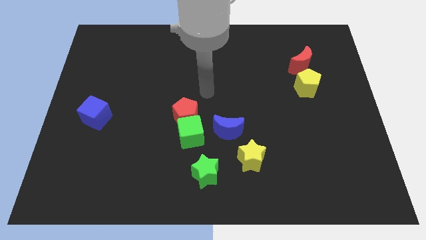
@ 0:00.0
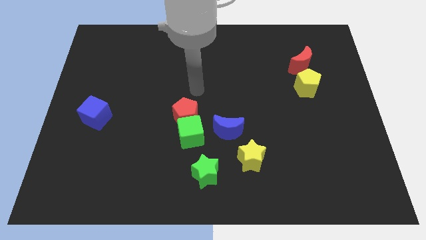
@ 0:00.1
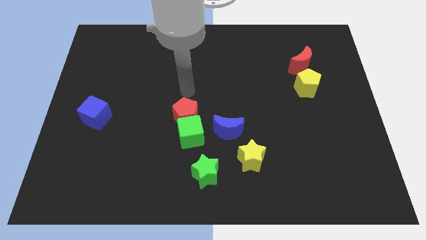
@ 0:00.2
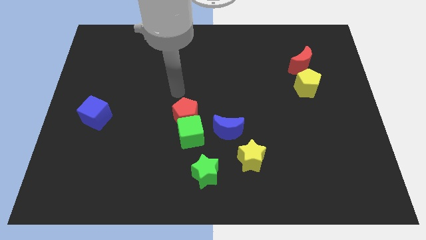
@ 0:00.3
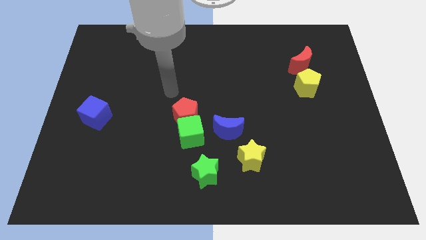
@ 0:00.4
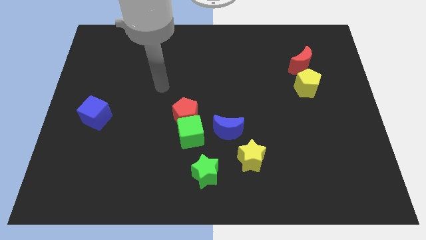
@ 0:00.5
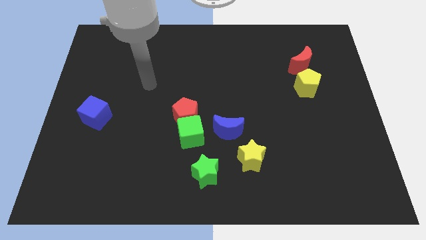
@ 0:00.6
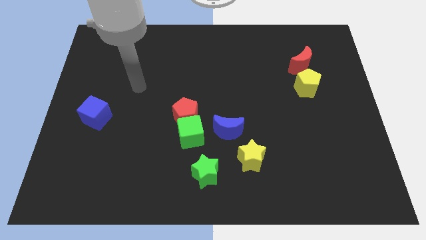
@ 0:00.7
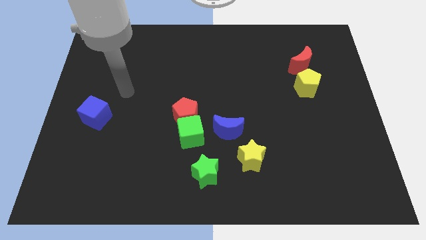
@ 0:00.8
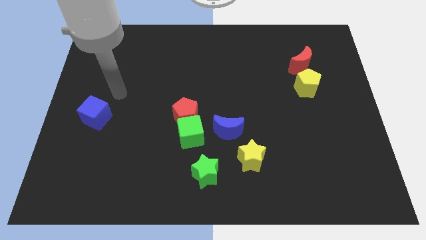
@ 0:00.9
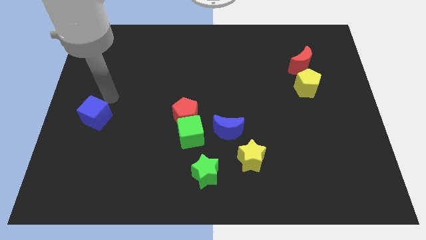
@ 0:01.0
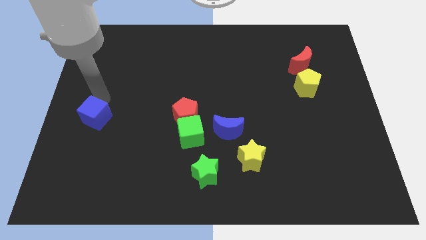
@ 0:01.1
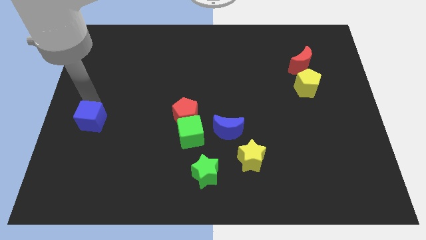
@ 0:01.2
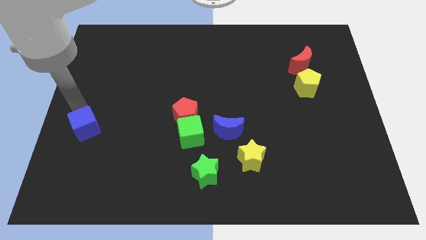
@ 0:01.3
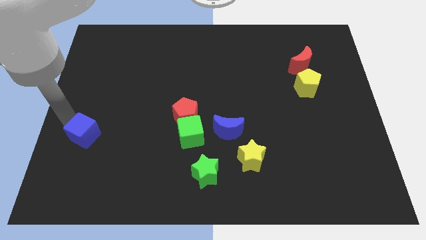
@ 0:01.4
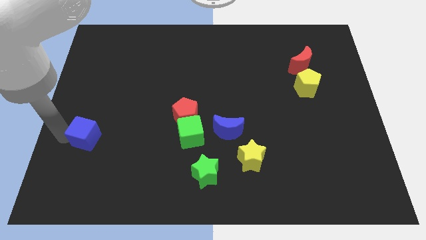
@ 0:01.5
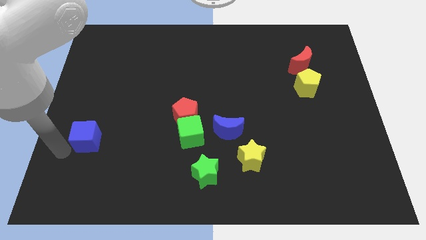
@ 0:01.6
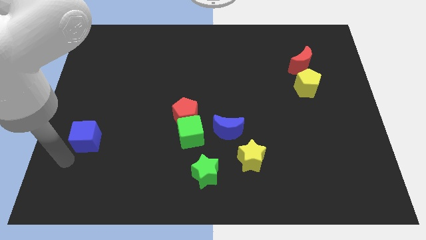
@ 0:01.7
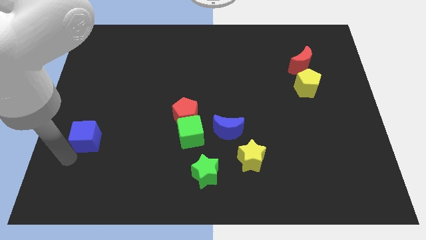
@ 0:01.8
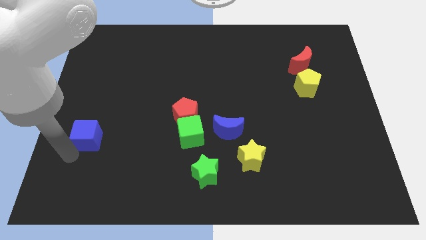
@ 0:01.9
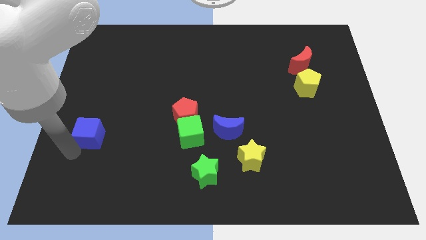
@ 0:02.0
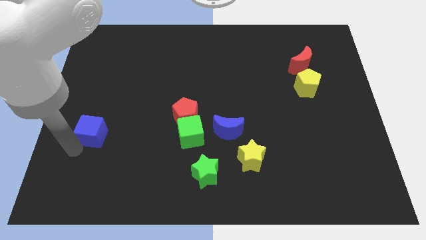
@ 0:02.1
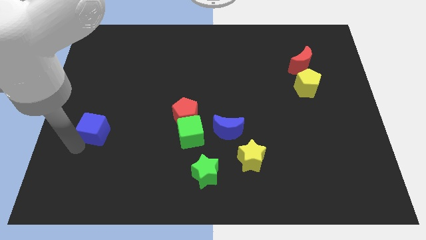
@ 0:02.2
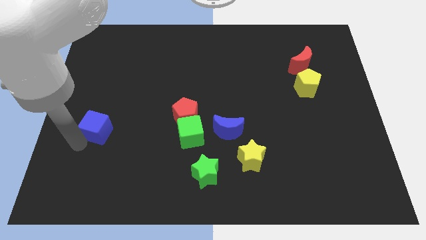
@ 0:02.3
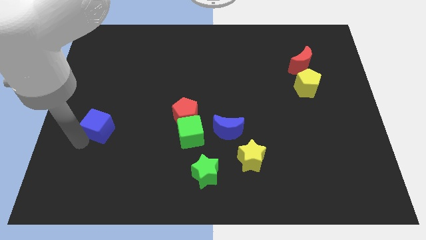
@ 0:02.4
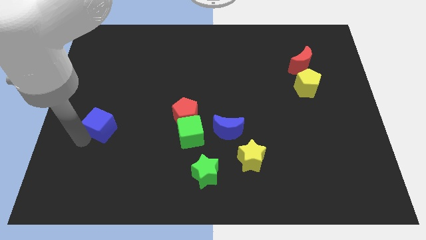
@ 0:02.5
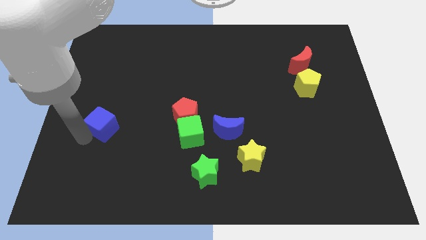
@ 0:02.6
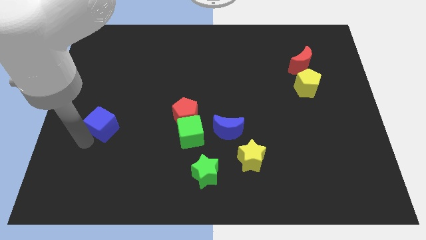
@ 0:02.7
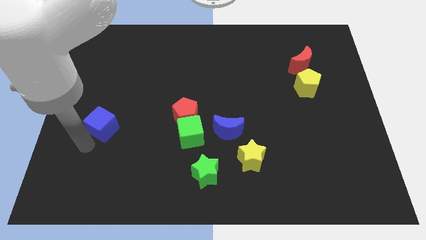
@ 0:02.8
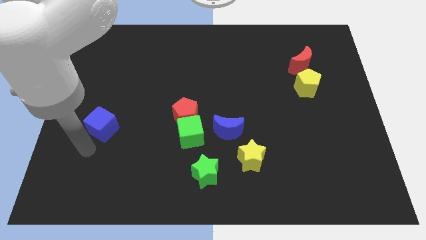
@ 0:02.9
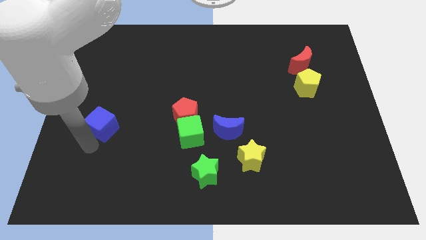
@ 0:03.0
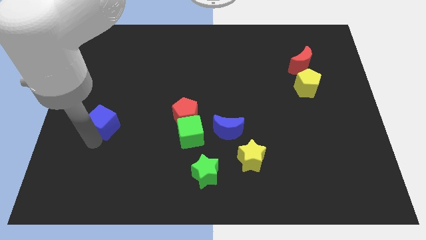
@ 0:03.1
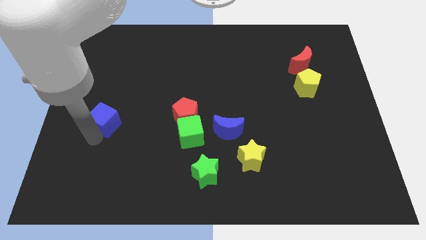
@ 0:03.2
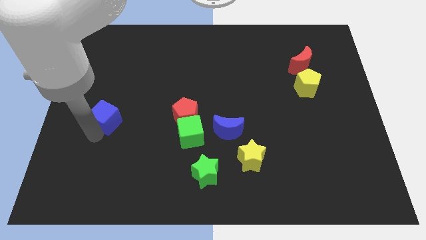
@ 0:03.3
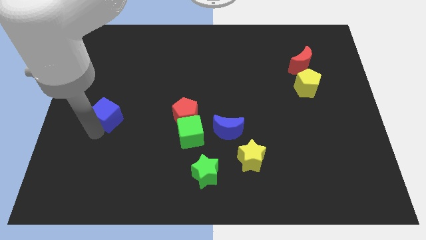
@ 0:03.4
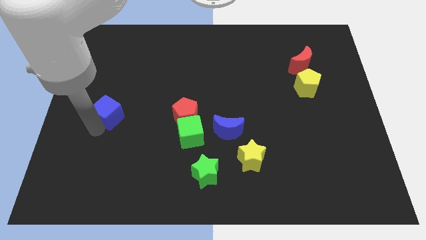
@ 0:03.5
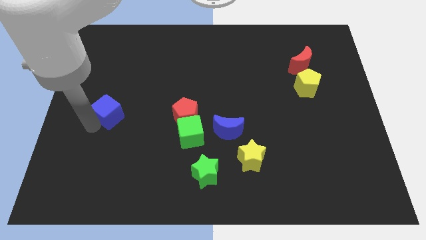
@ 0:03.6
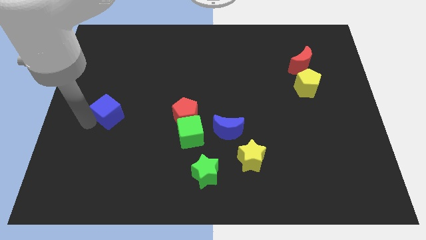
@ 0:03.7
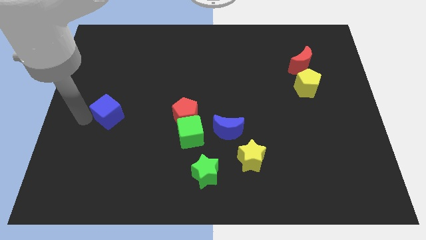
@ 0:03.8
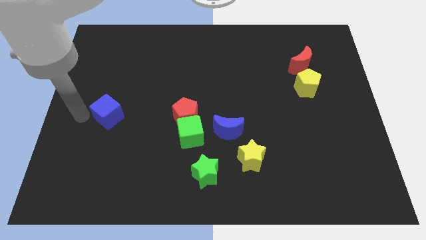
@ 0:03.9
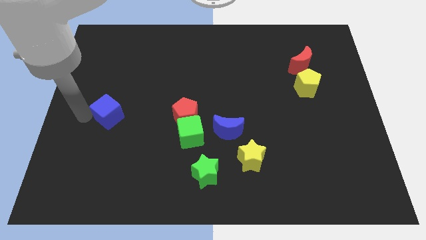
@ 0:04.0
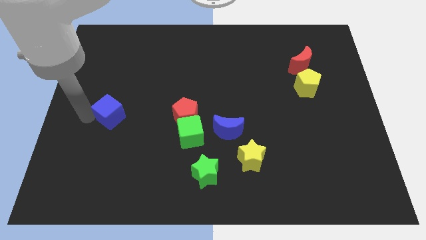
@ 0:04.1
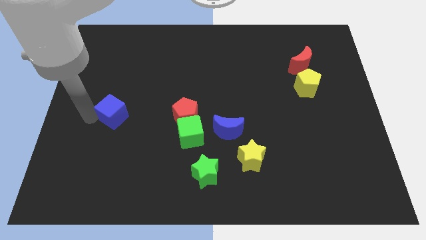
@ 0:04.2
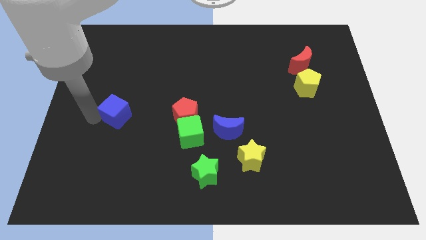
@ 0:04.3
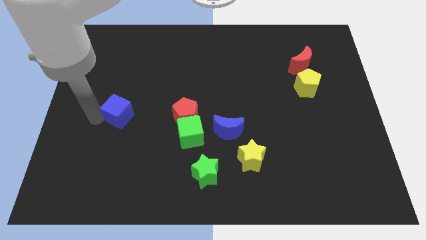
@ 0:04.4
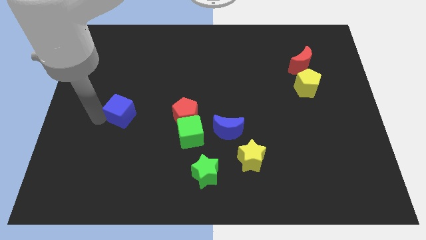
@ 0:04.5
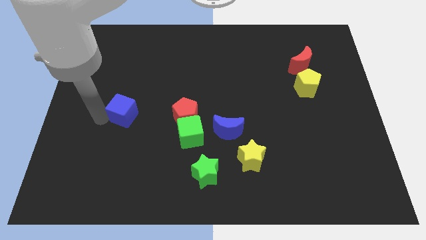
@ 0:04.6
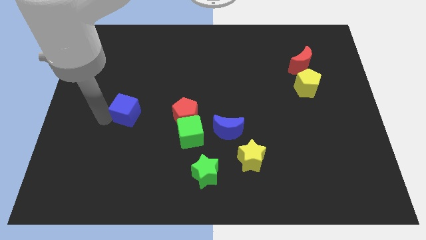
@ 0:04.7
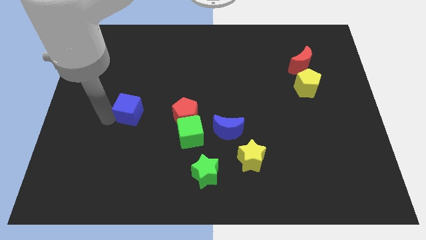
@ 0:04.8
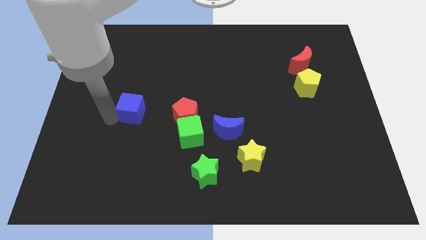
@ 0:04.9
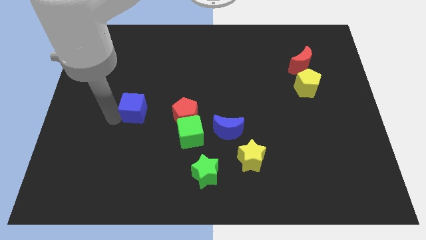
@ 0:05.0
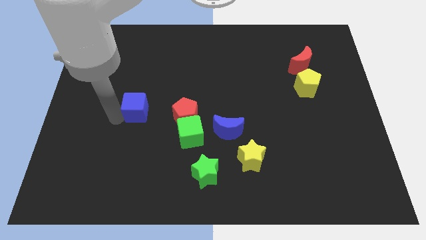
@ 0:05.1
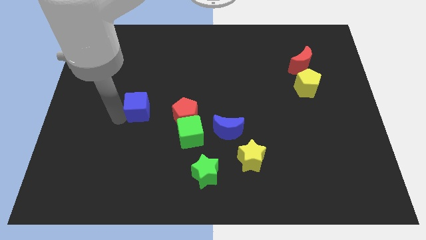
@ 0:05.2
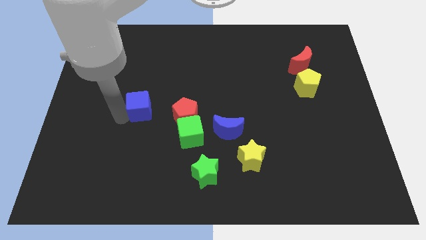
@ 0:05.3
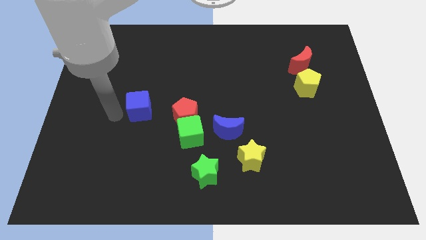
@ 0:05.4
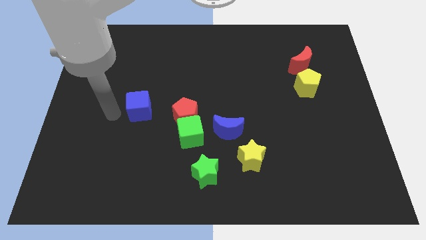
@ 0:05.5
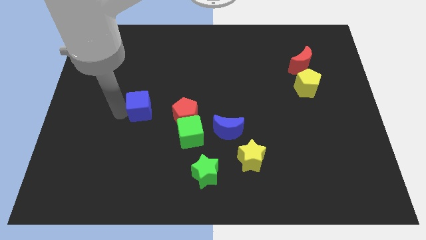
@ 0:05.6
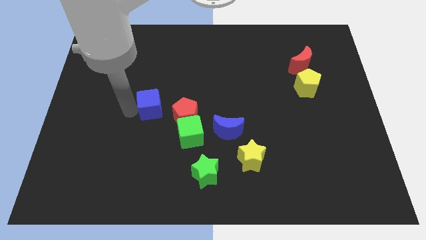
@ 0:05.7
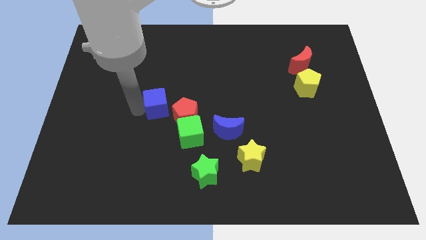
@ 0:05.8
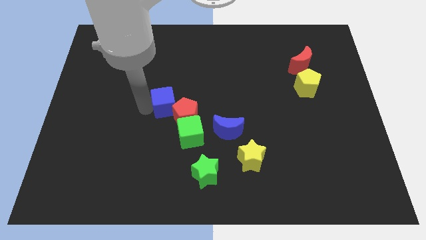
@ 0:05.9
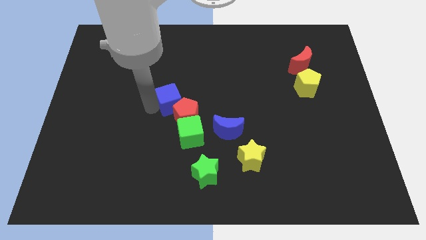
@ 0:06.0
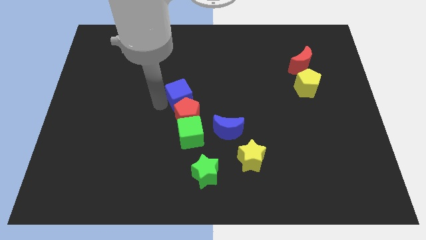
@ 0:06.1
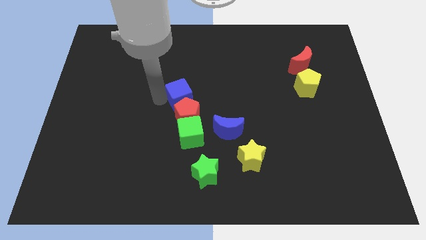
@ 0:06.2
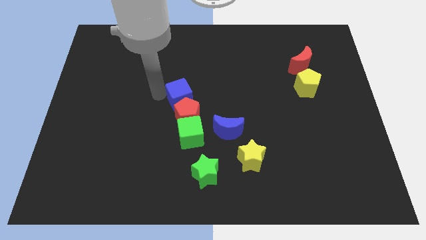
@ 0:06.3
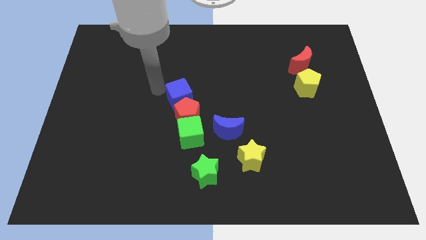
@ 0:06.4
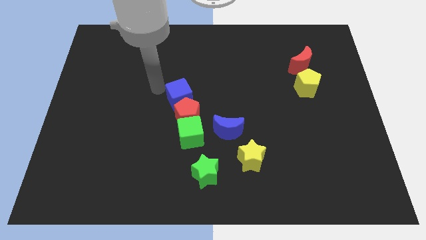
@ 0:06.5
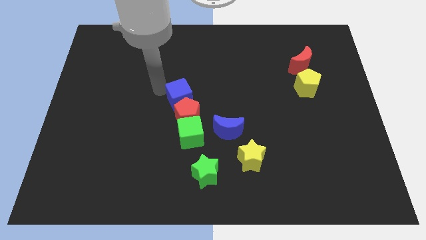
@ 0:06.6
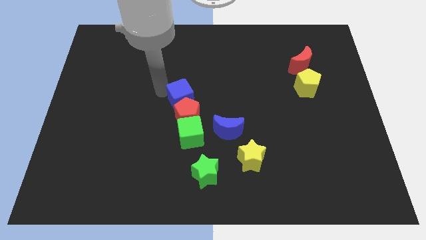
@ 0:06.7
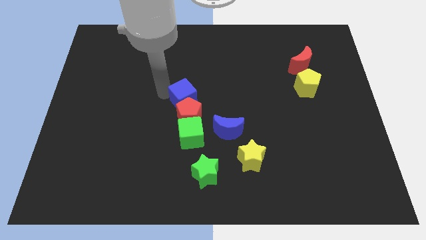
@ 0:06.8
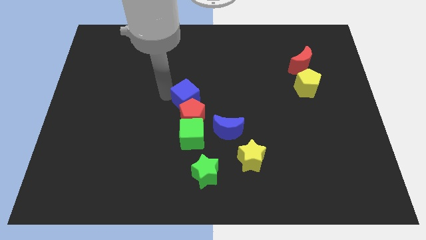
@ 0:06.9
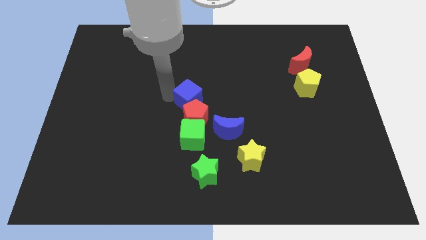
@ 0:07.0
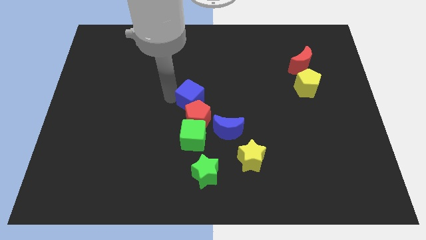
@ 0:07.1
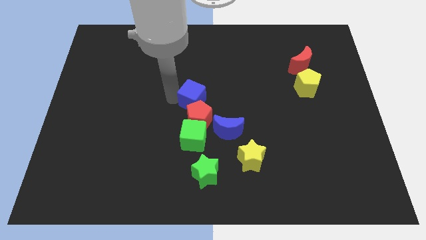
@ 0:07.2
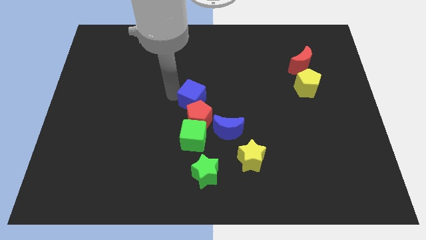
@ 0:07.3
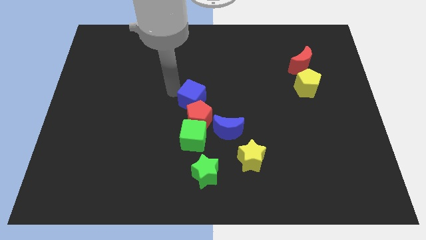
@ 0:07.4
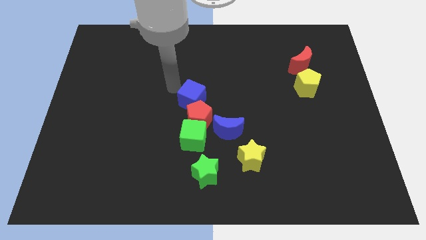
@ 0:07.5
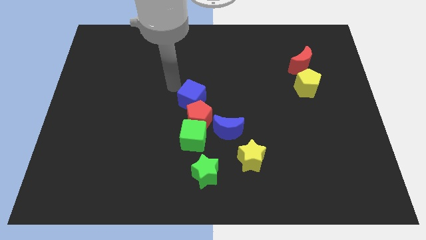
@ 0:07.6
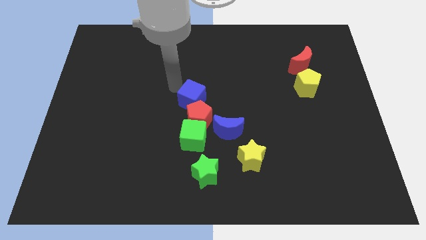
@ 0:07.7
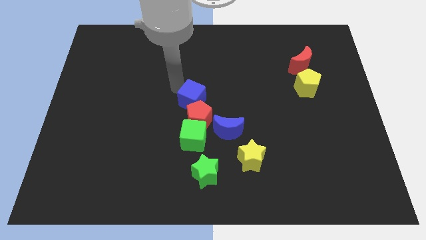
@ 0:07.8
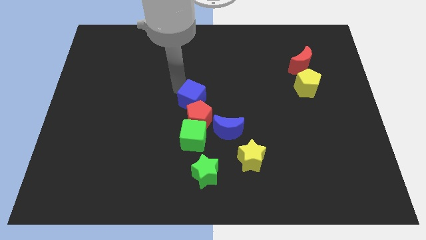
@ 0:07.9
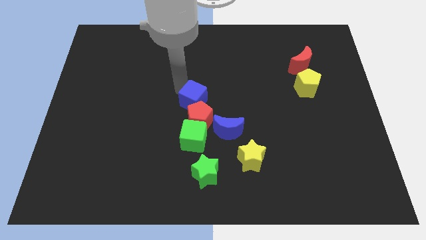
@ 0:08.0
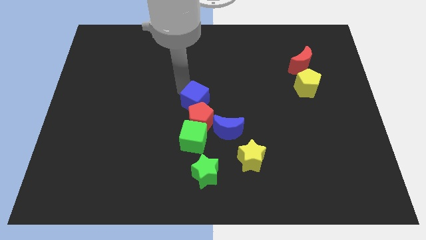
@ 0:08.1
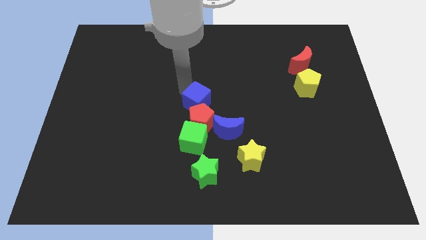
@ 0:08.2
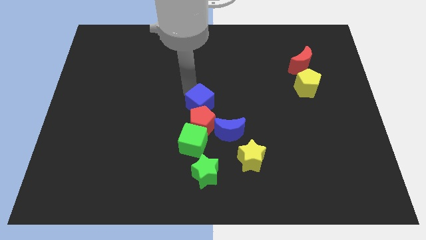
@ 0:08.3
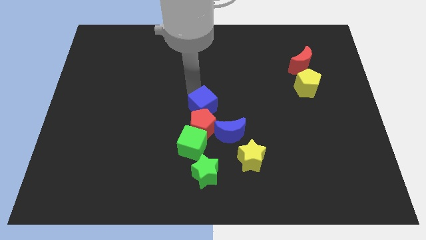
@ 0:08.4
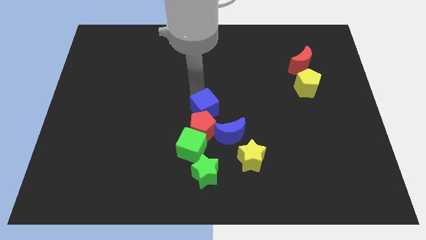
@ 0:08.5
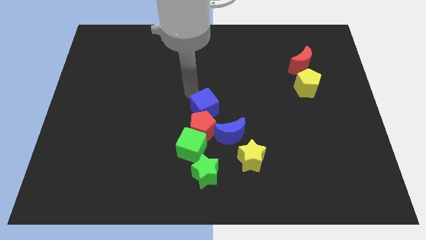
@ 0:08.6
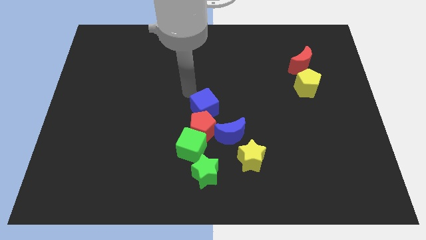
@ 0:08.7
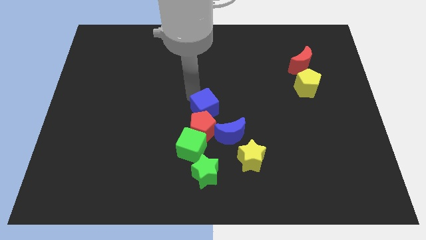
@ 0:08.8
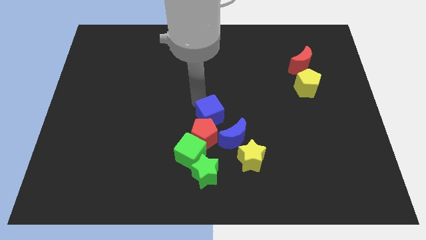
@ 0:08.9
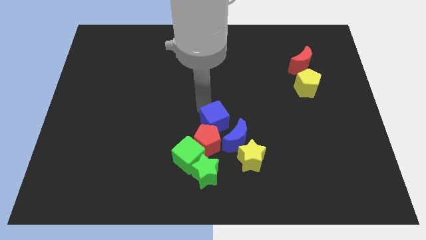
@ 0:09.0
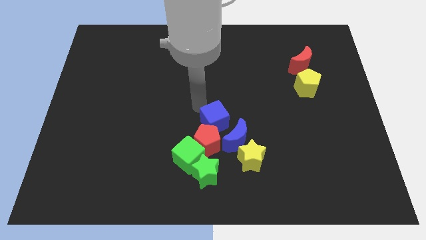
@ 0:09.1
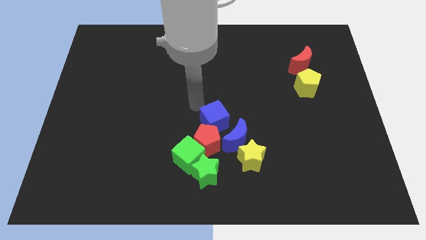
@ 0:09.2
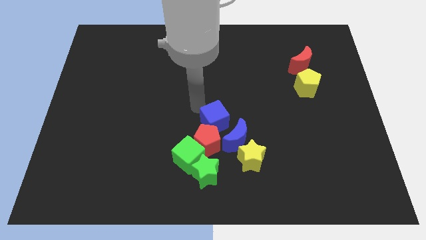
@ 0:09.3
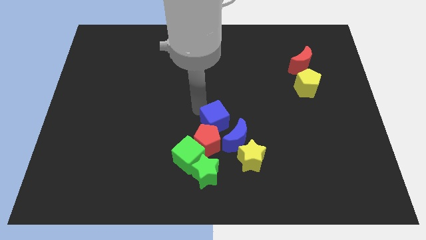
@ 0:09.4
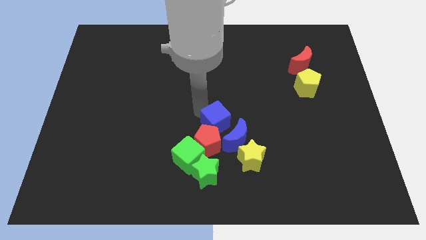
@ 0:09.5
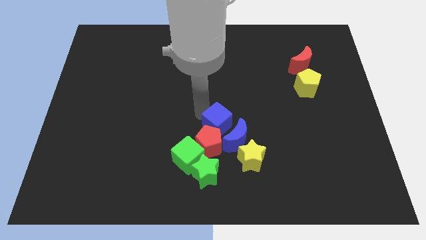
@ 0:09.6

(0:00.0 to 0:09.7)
move the blue cube towards the blue moon
